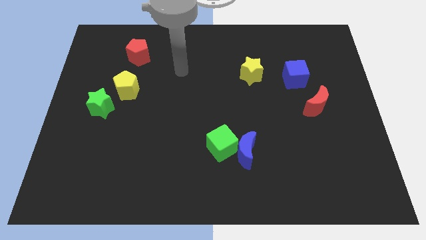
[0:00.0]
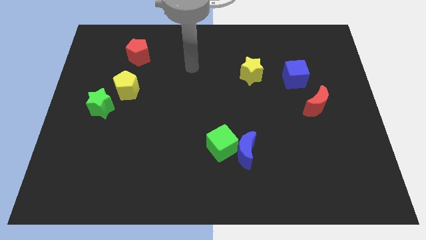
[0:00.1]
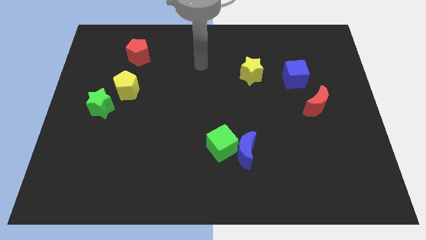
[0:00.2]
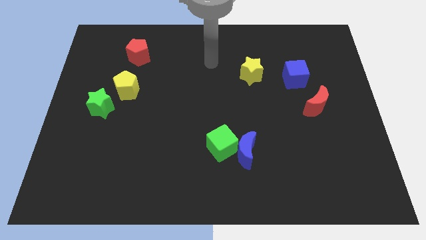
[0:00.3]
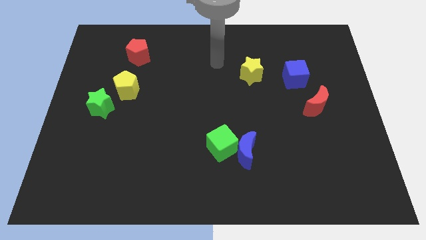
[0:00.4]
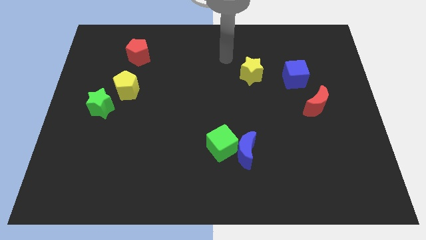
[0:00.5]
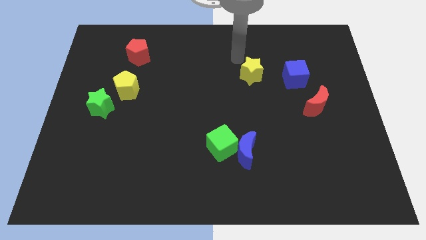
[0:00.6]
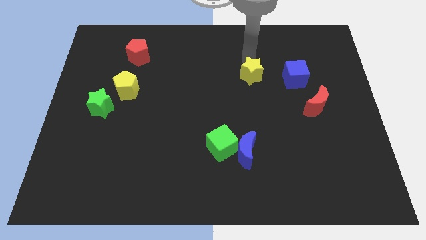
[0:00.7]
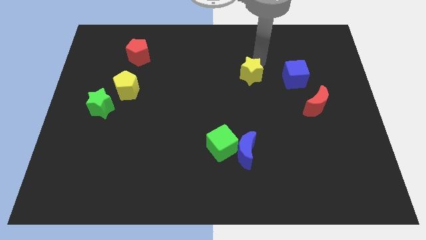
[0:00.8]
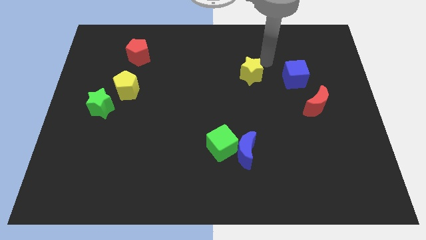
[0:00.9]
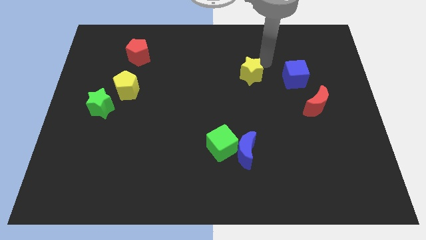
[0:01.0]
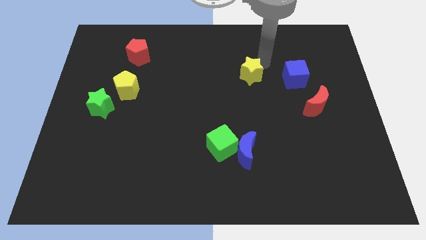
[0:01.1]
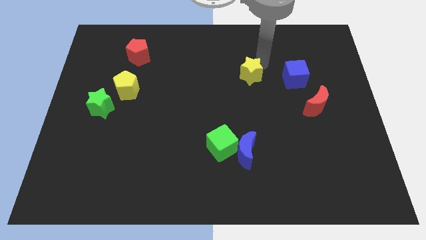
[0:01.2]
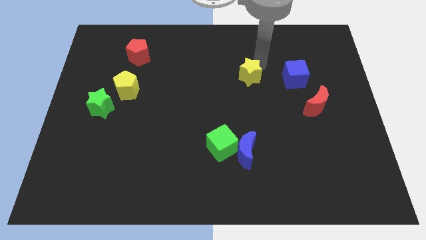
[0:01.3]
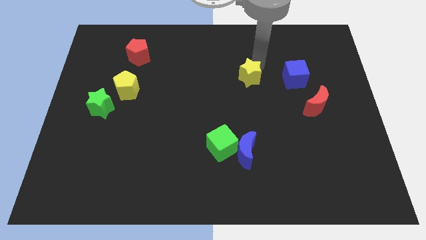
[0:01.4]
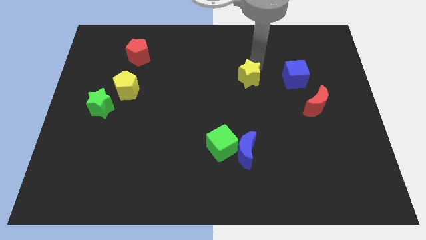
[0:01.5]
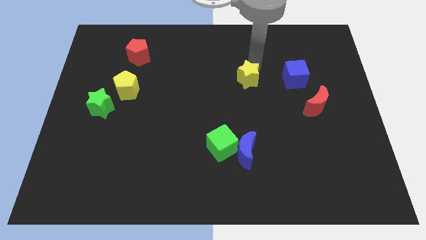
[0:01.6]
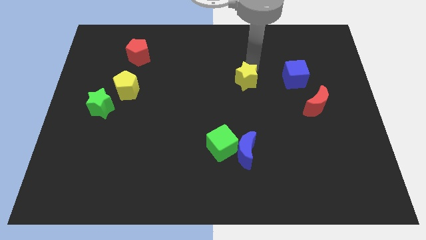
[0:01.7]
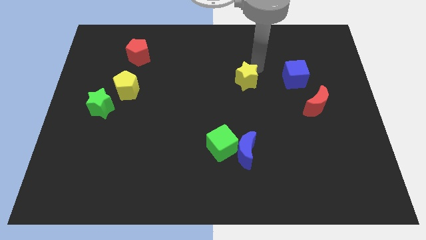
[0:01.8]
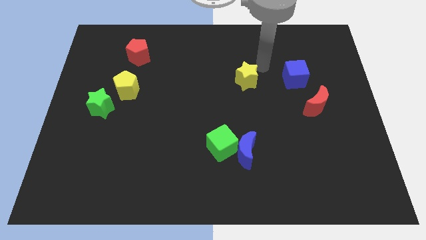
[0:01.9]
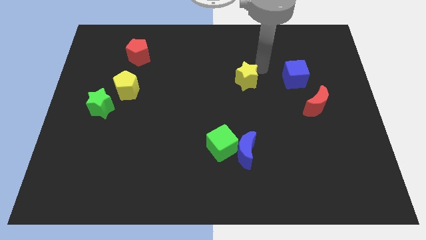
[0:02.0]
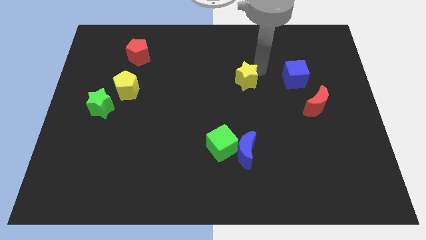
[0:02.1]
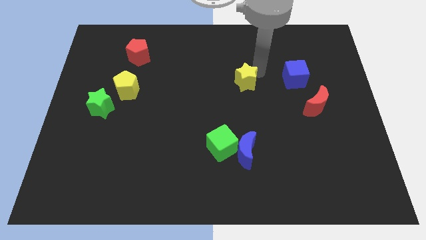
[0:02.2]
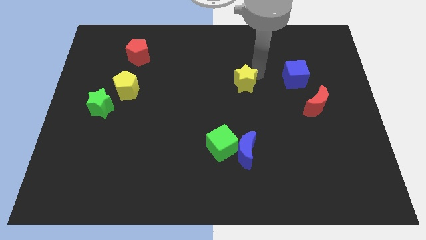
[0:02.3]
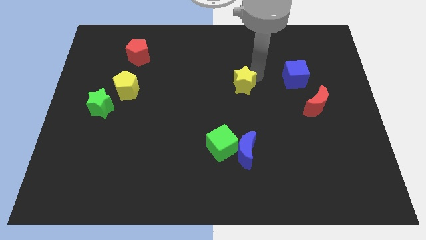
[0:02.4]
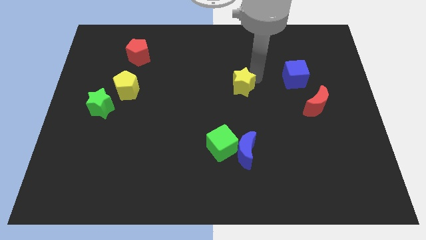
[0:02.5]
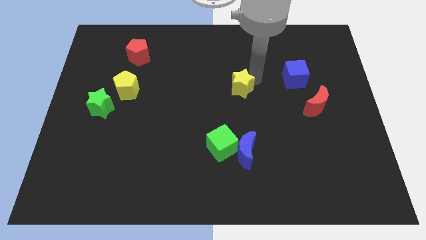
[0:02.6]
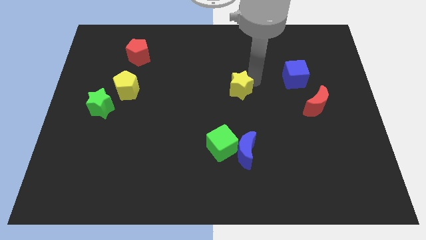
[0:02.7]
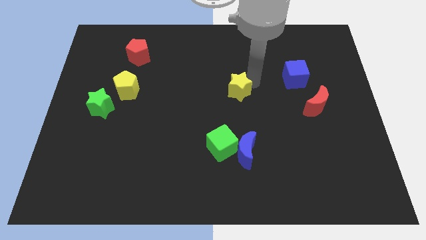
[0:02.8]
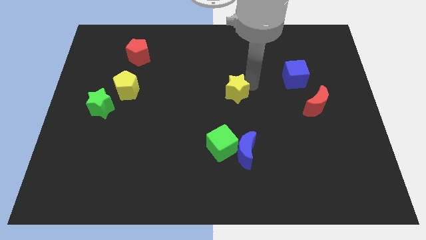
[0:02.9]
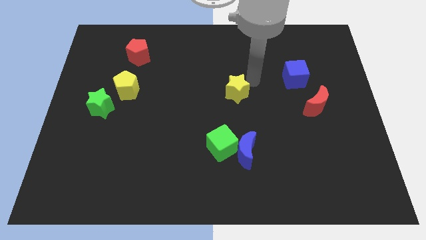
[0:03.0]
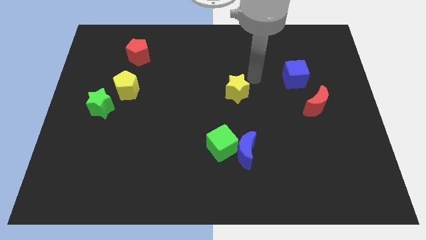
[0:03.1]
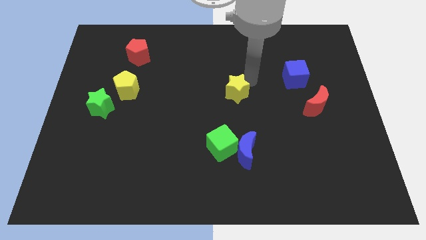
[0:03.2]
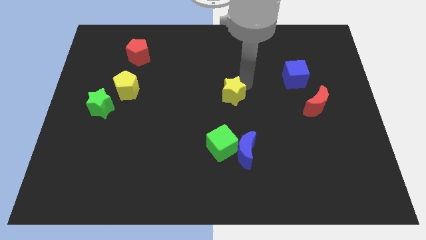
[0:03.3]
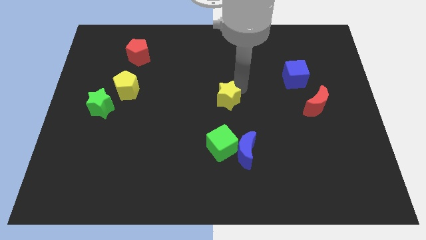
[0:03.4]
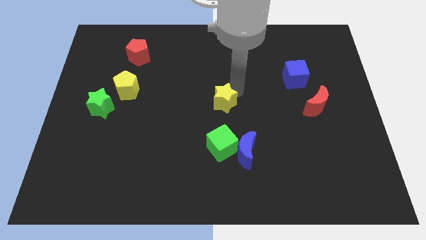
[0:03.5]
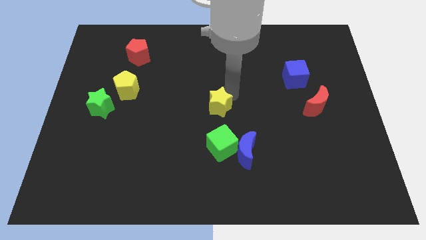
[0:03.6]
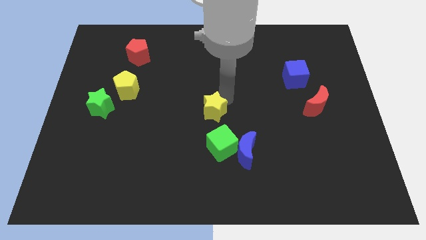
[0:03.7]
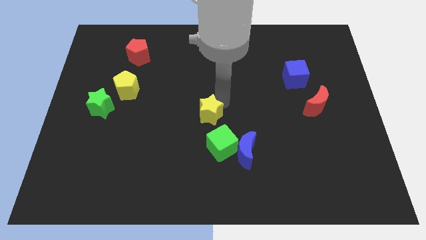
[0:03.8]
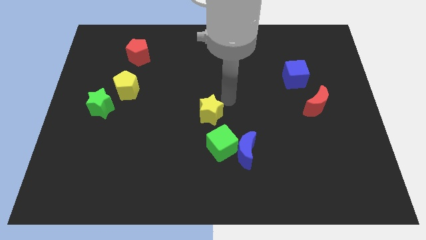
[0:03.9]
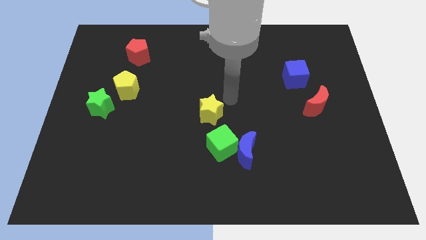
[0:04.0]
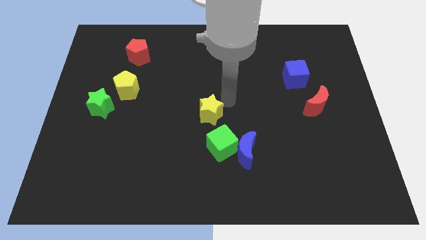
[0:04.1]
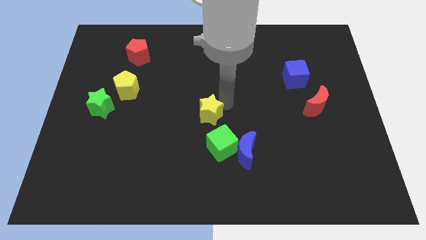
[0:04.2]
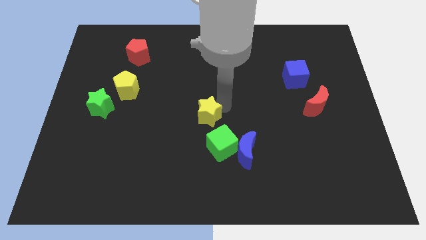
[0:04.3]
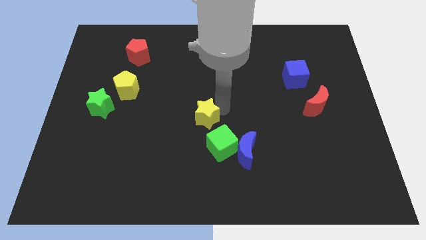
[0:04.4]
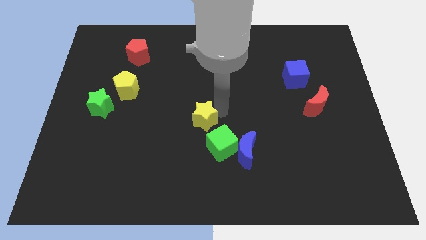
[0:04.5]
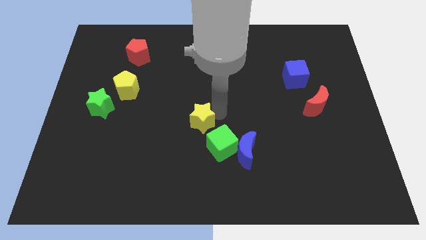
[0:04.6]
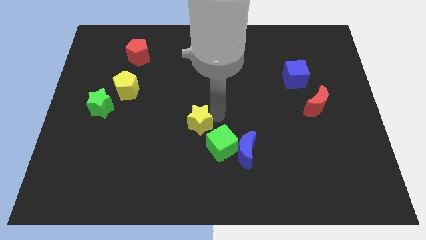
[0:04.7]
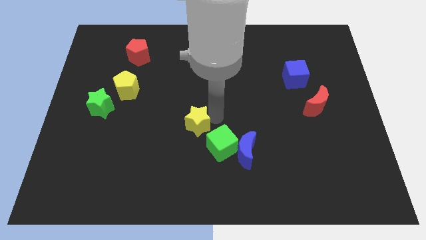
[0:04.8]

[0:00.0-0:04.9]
push the yellow star downwards and then left

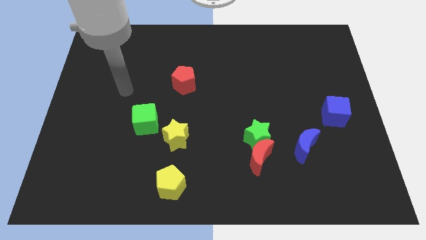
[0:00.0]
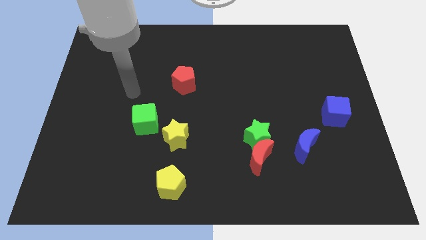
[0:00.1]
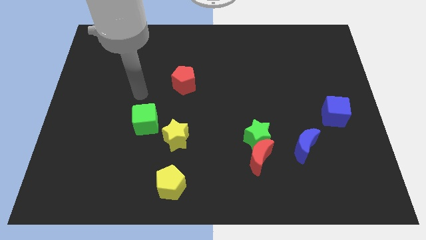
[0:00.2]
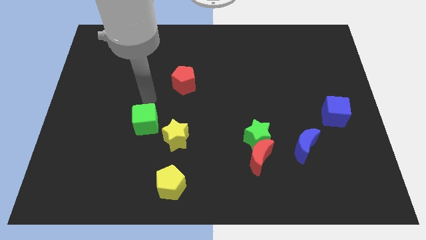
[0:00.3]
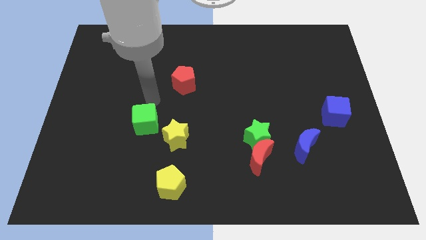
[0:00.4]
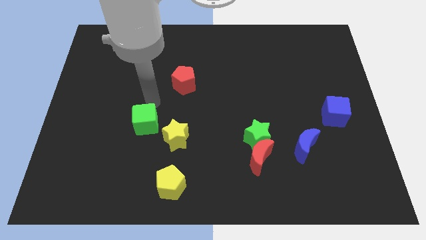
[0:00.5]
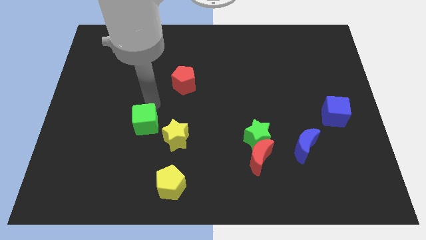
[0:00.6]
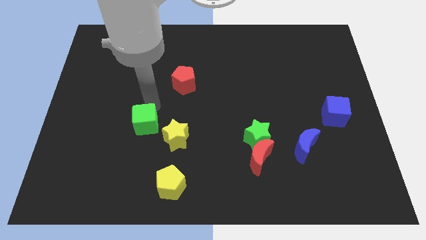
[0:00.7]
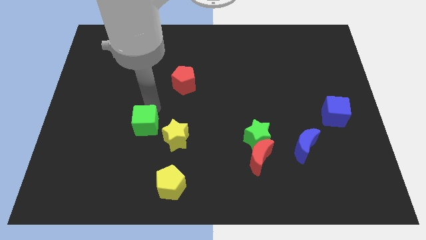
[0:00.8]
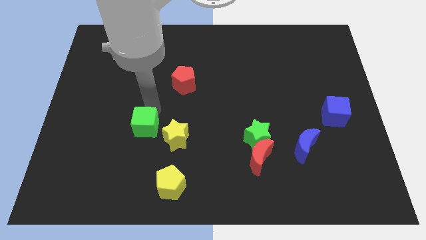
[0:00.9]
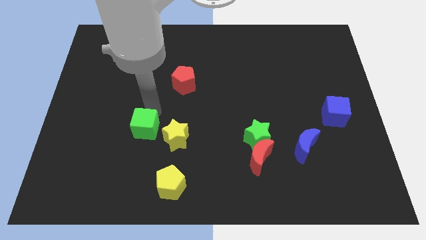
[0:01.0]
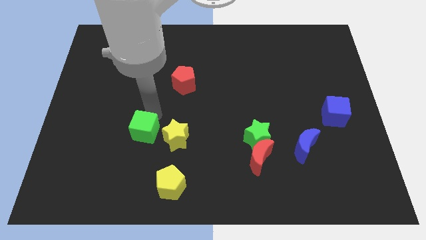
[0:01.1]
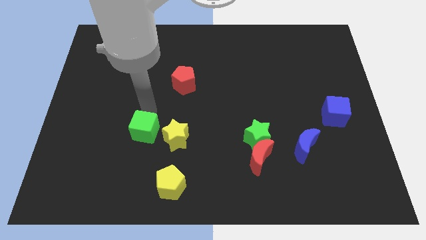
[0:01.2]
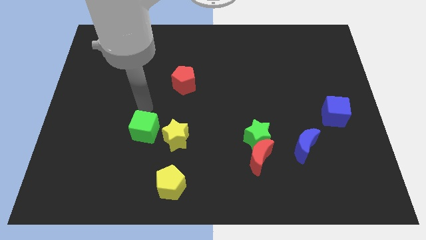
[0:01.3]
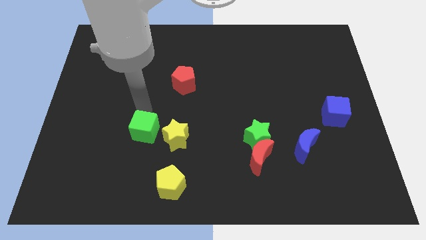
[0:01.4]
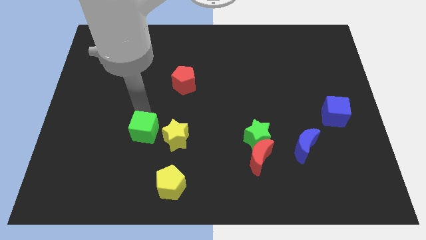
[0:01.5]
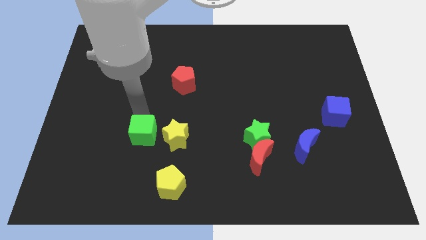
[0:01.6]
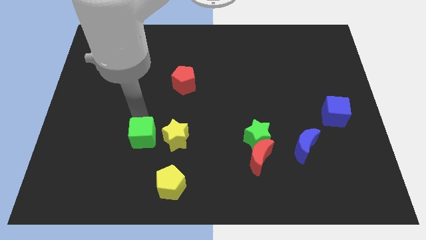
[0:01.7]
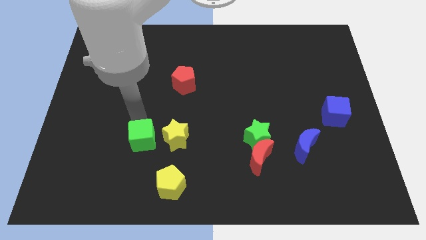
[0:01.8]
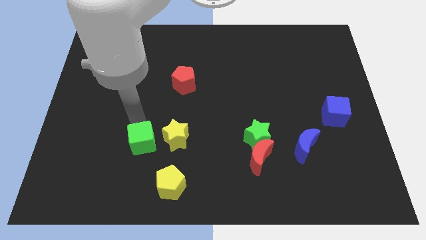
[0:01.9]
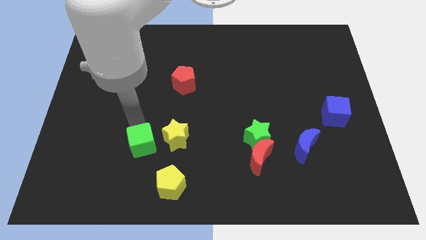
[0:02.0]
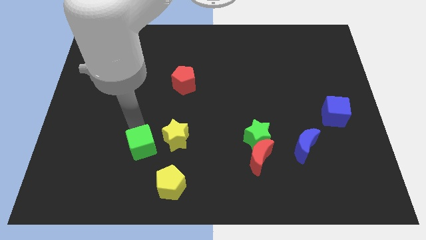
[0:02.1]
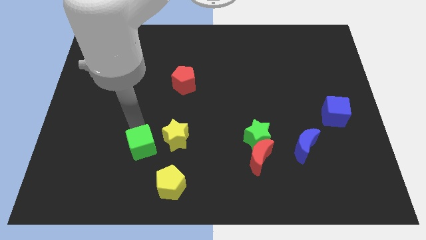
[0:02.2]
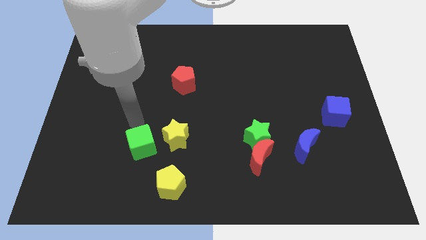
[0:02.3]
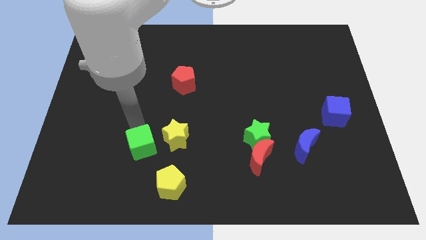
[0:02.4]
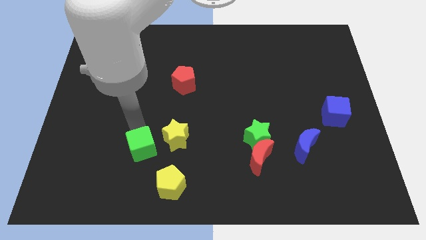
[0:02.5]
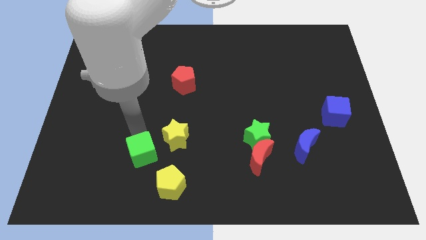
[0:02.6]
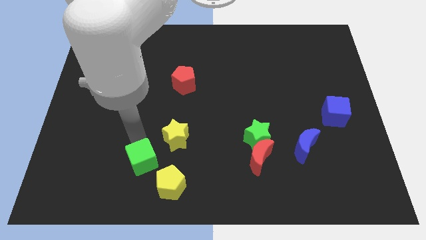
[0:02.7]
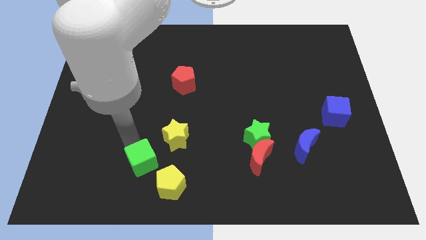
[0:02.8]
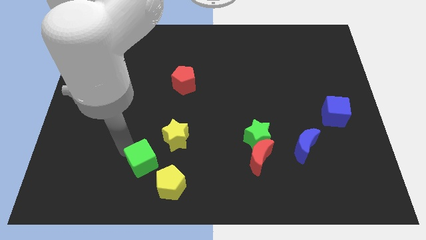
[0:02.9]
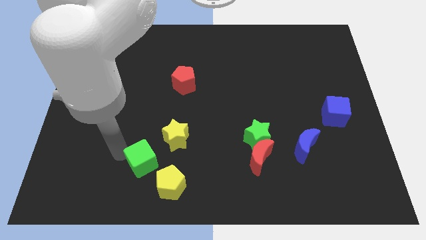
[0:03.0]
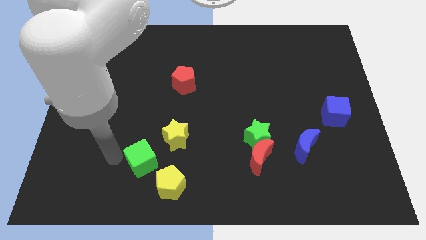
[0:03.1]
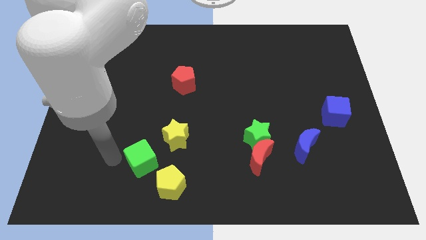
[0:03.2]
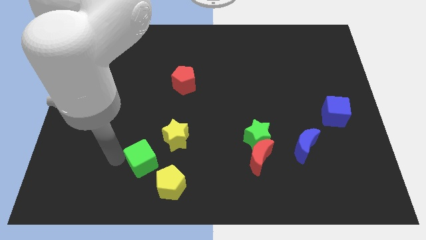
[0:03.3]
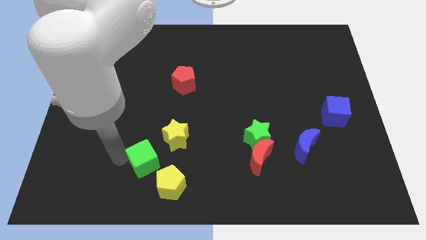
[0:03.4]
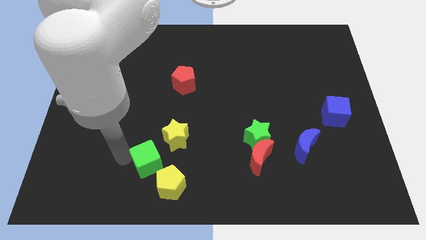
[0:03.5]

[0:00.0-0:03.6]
slightly push the green cube diagonally downwards and to the right
